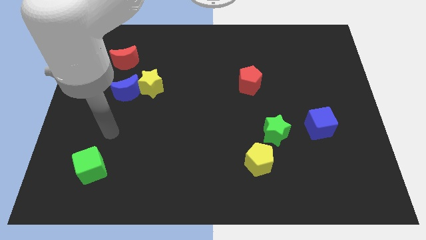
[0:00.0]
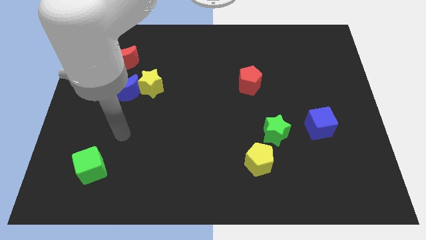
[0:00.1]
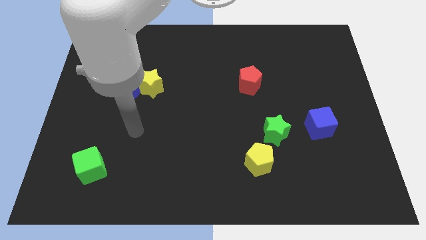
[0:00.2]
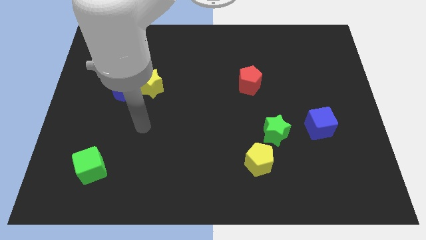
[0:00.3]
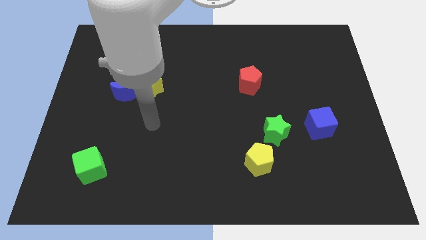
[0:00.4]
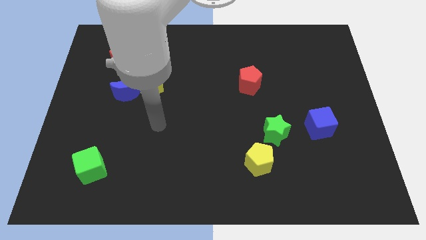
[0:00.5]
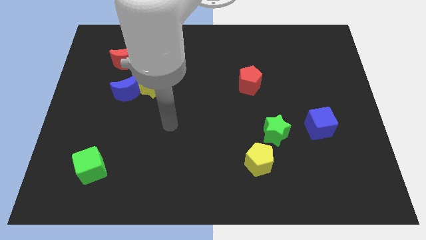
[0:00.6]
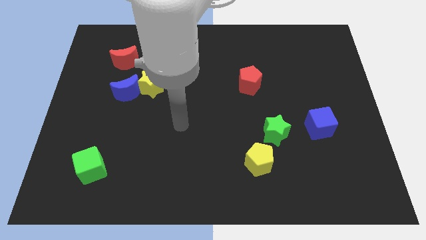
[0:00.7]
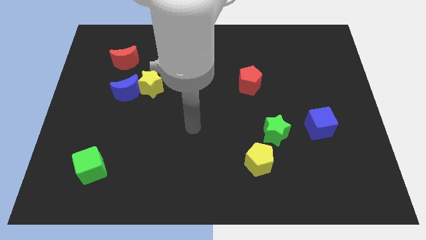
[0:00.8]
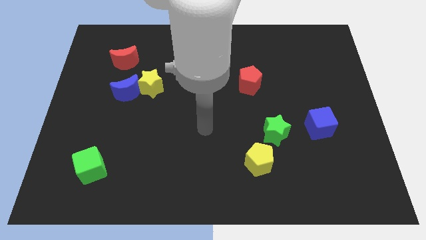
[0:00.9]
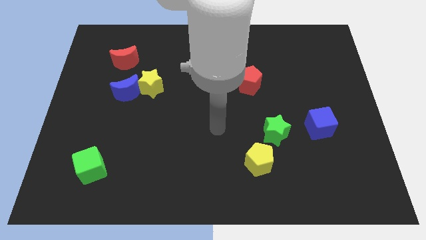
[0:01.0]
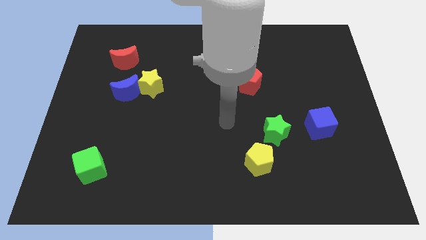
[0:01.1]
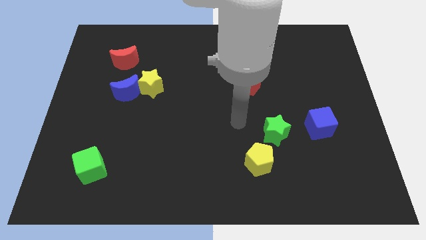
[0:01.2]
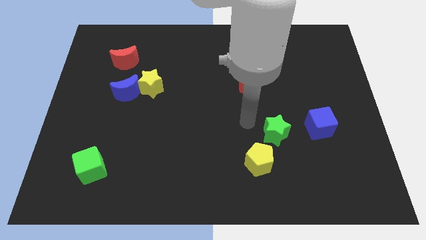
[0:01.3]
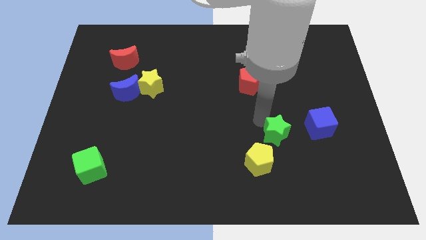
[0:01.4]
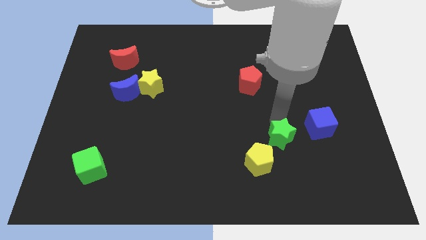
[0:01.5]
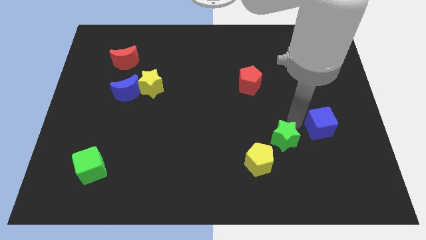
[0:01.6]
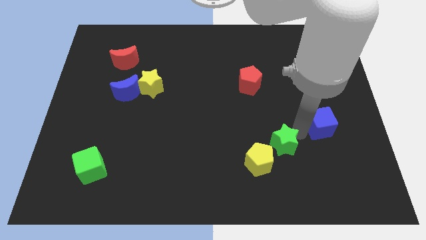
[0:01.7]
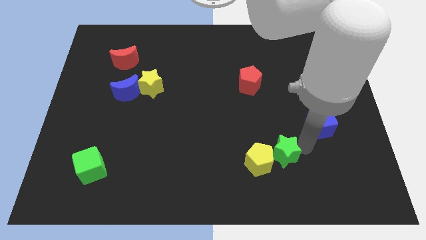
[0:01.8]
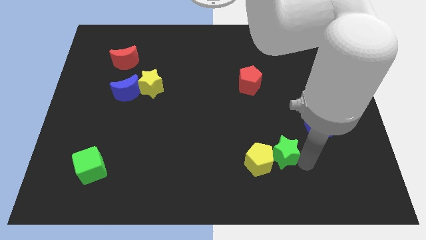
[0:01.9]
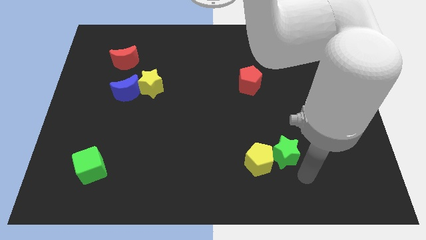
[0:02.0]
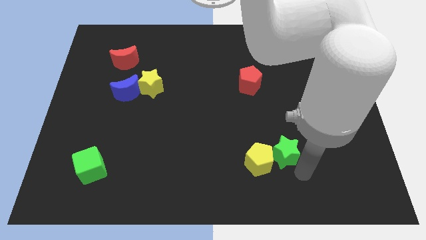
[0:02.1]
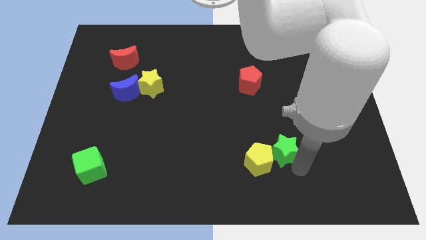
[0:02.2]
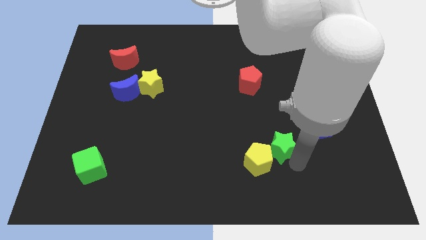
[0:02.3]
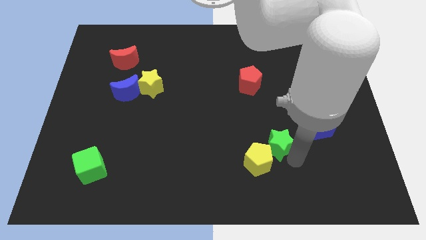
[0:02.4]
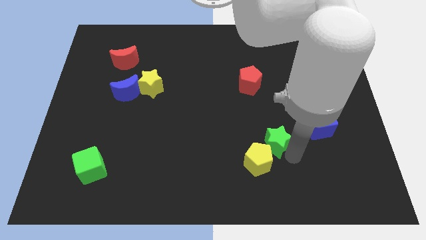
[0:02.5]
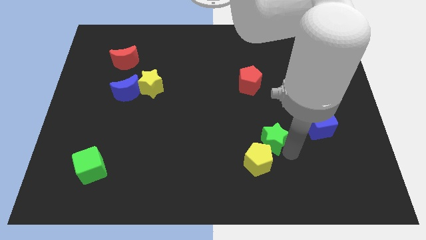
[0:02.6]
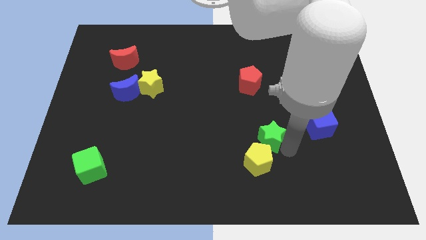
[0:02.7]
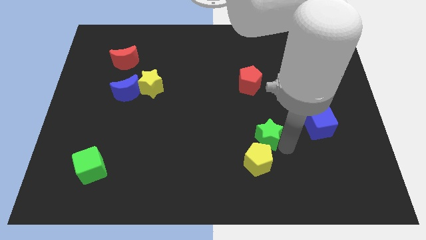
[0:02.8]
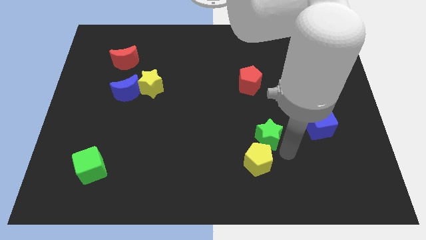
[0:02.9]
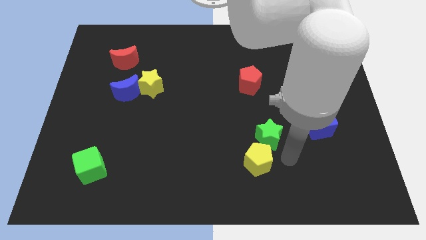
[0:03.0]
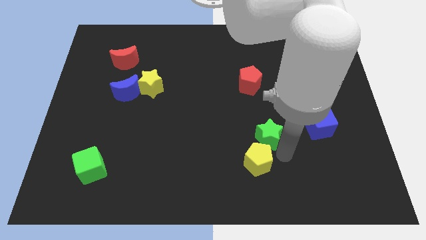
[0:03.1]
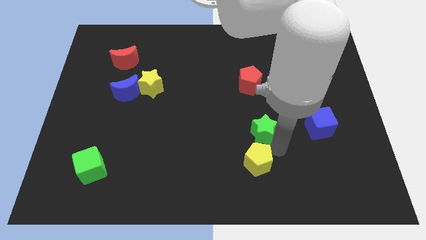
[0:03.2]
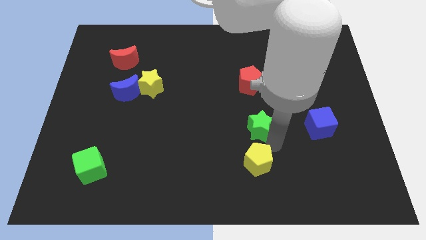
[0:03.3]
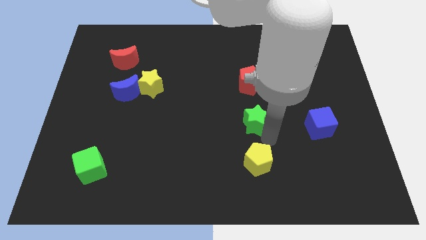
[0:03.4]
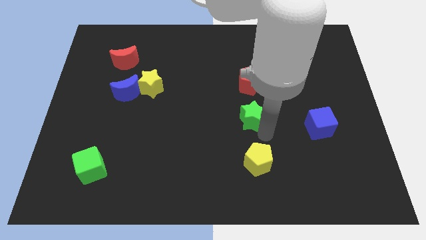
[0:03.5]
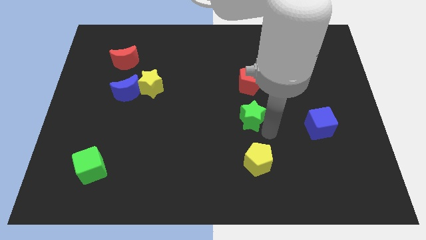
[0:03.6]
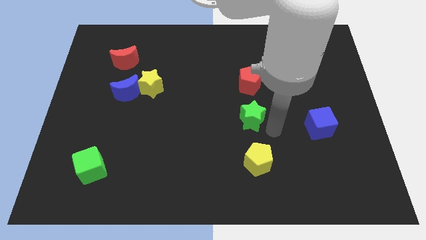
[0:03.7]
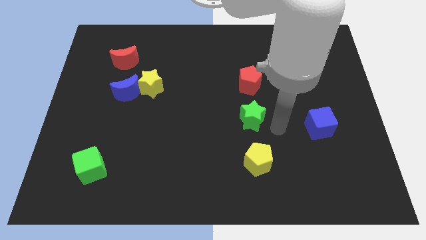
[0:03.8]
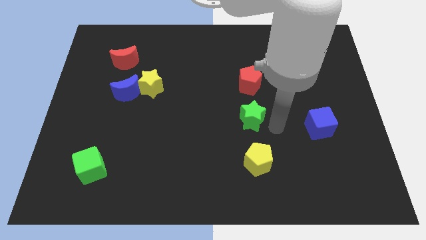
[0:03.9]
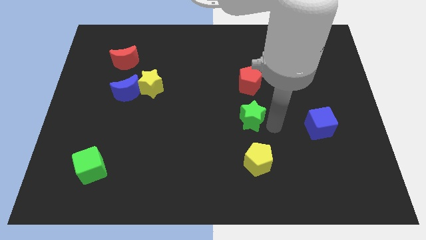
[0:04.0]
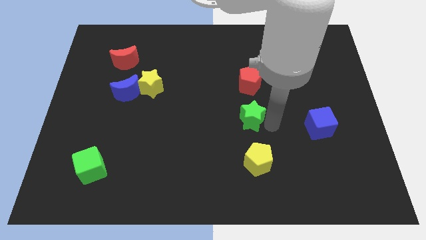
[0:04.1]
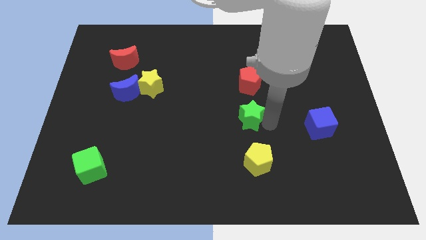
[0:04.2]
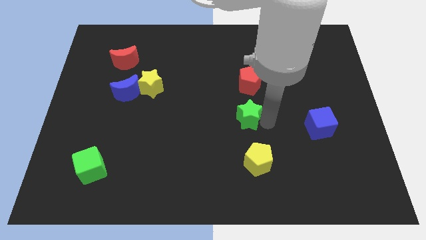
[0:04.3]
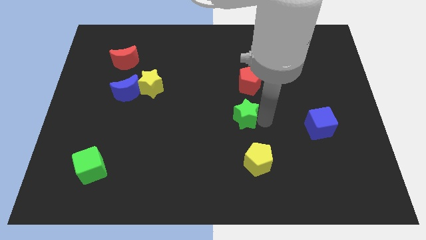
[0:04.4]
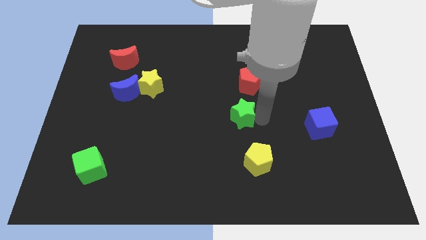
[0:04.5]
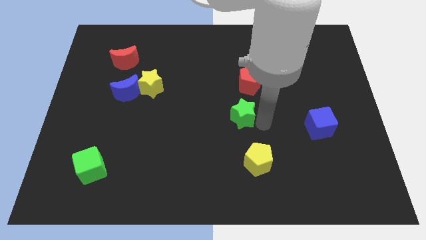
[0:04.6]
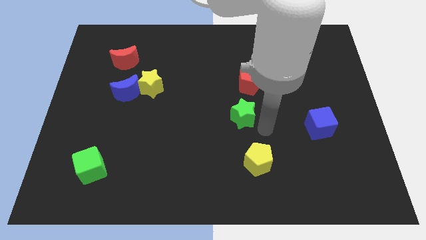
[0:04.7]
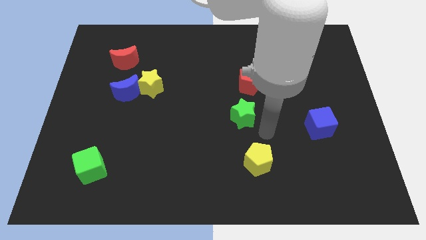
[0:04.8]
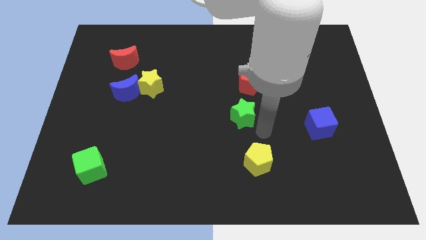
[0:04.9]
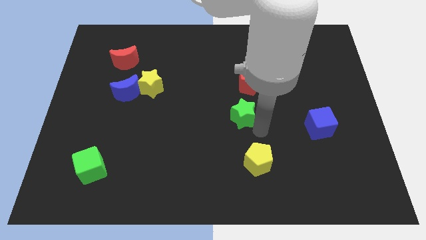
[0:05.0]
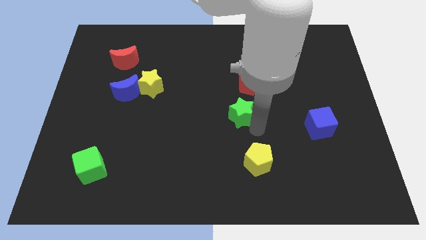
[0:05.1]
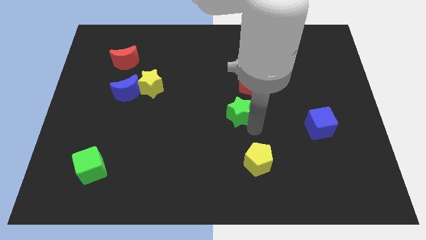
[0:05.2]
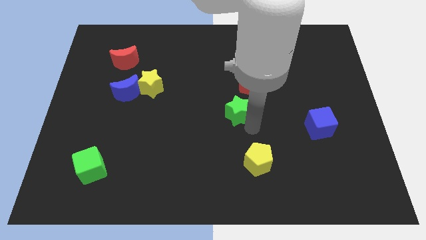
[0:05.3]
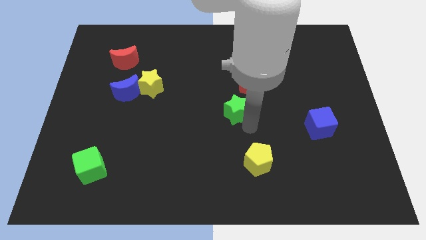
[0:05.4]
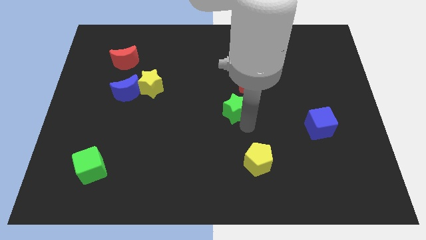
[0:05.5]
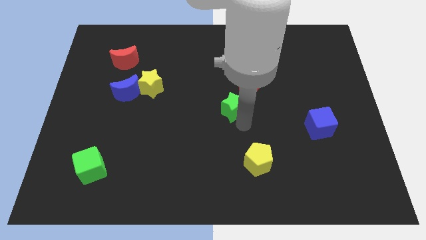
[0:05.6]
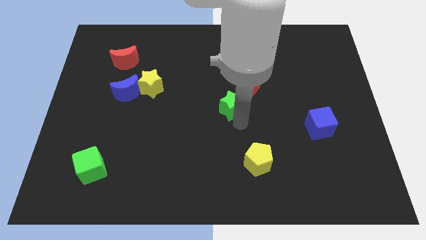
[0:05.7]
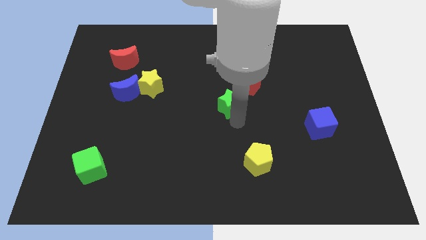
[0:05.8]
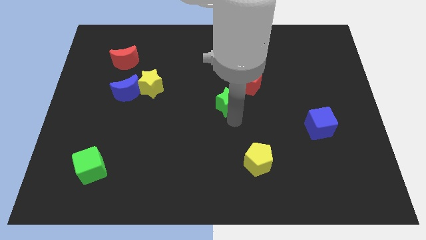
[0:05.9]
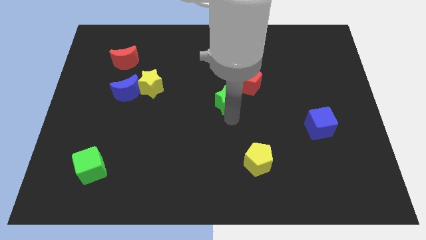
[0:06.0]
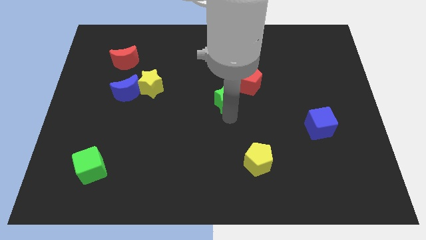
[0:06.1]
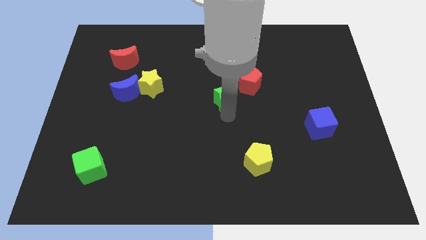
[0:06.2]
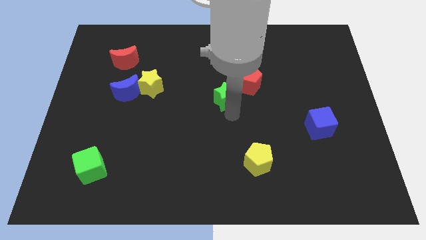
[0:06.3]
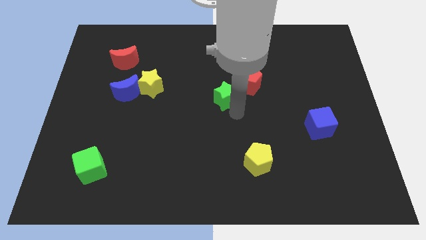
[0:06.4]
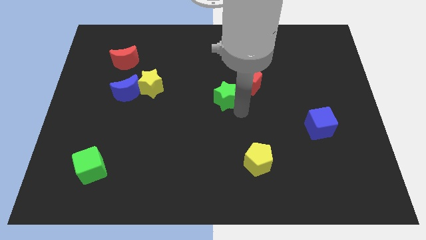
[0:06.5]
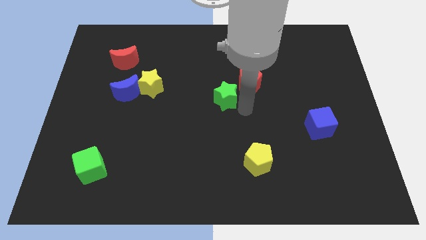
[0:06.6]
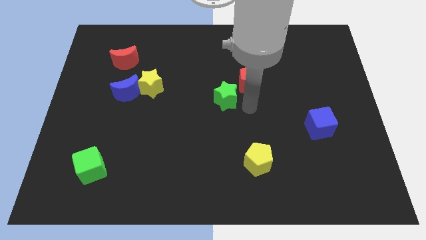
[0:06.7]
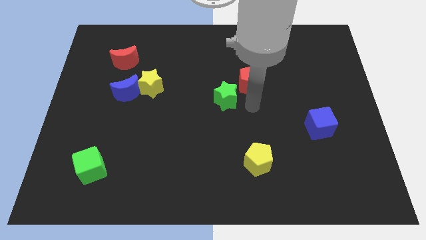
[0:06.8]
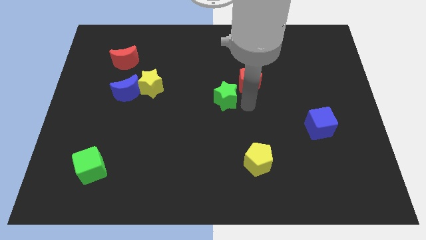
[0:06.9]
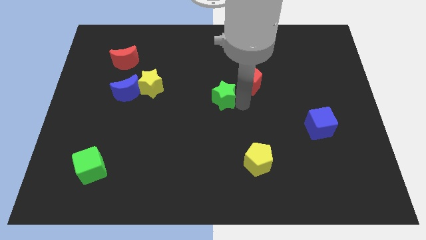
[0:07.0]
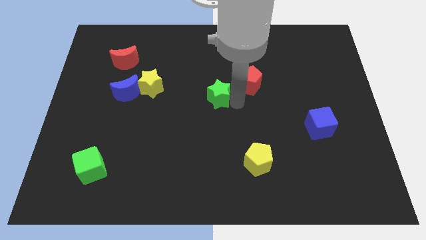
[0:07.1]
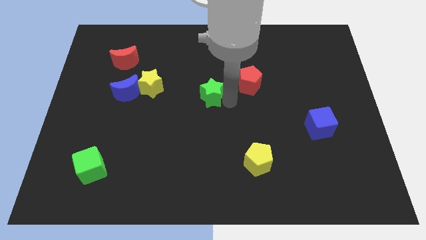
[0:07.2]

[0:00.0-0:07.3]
put the green star to the right of the yellow star
